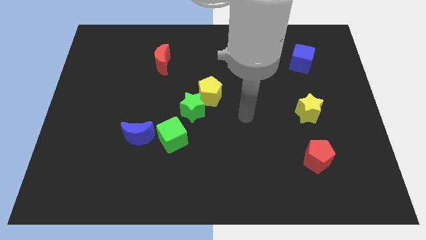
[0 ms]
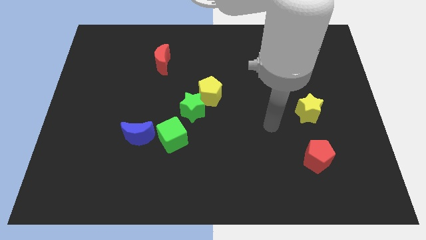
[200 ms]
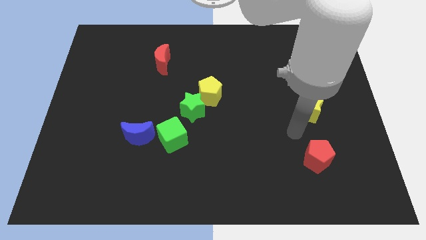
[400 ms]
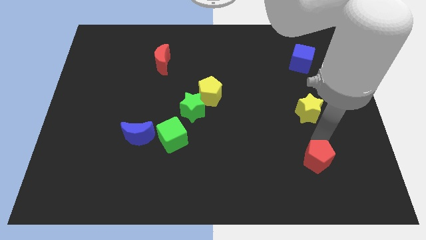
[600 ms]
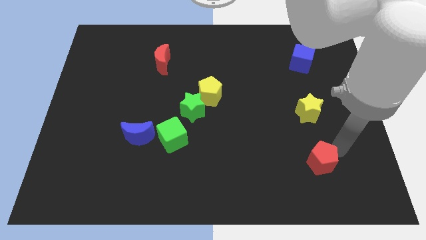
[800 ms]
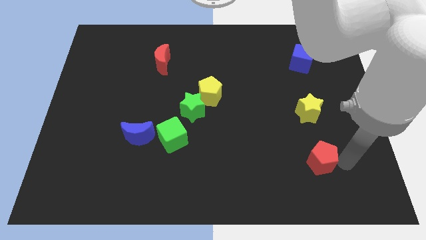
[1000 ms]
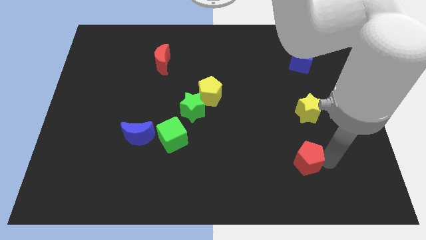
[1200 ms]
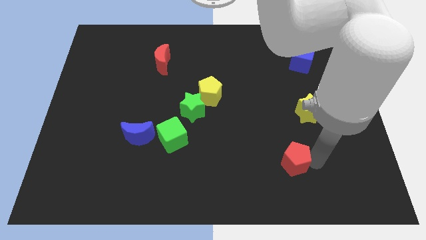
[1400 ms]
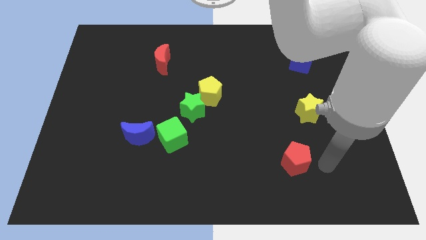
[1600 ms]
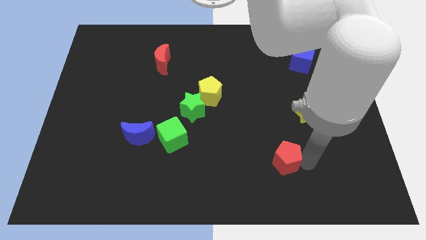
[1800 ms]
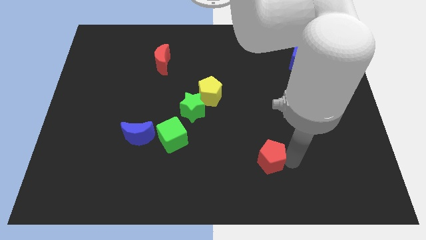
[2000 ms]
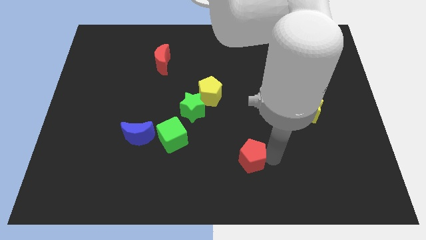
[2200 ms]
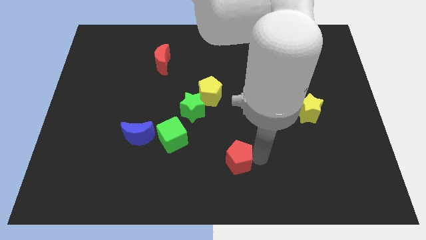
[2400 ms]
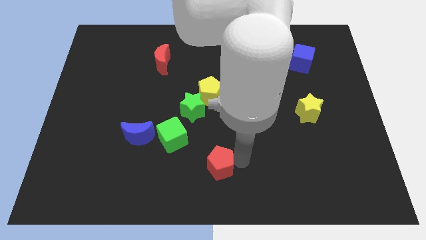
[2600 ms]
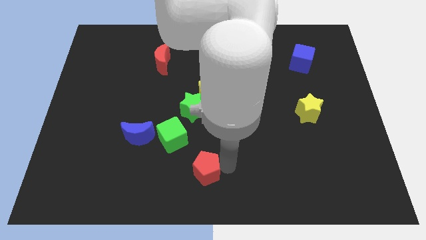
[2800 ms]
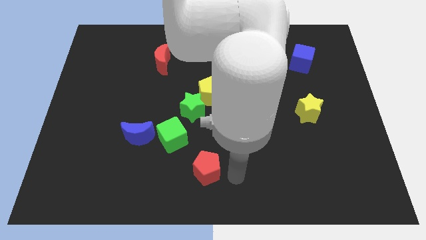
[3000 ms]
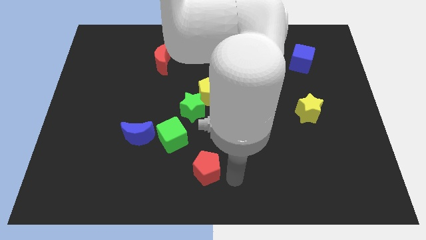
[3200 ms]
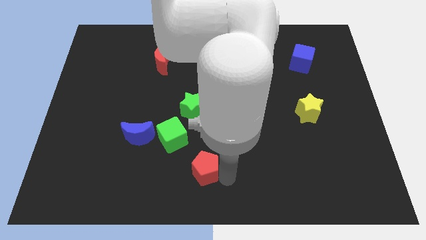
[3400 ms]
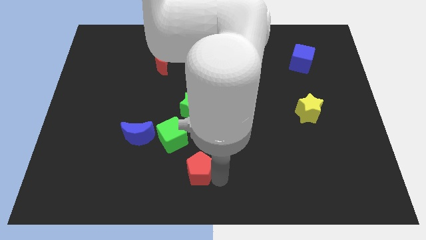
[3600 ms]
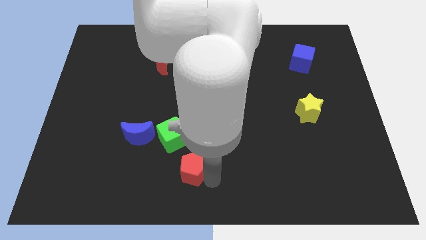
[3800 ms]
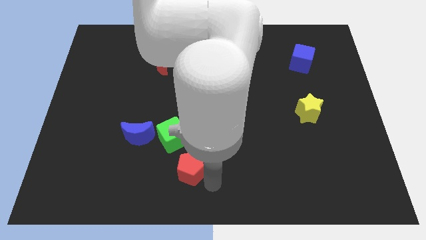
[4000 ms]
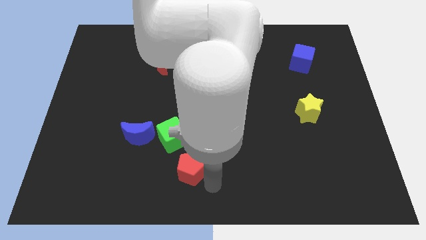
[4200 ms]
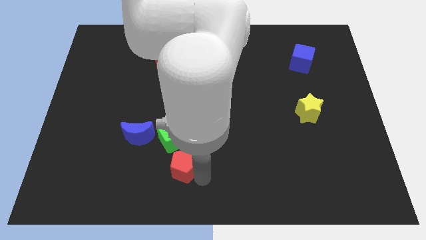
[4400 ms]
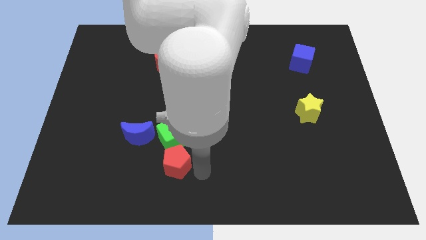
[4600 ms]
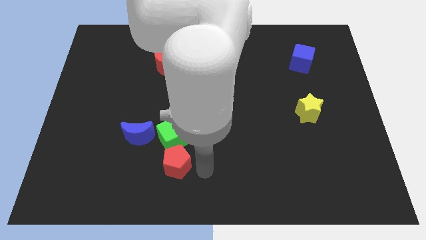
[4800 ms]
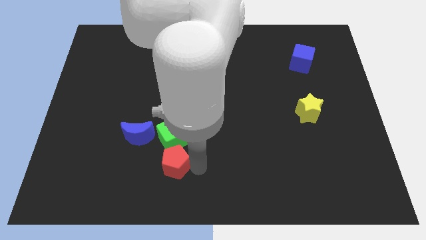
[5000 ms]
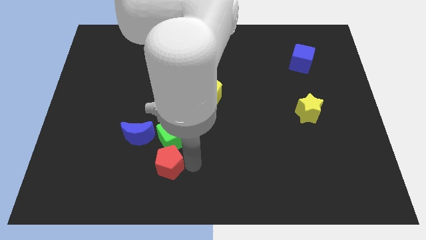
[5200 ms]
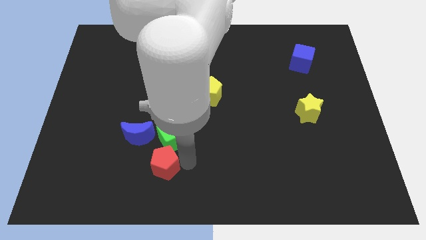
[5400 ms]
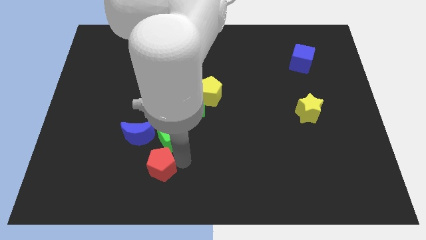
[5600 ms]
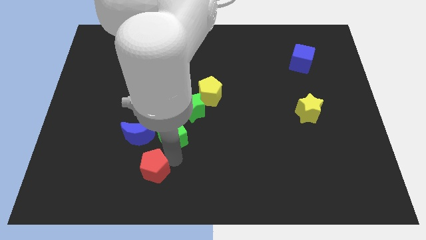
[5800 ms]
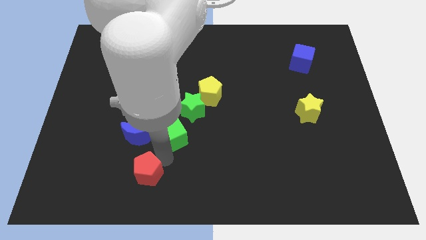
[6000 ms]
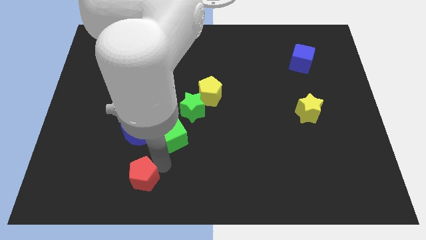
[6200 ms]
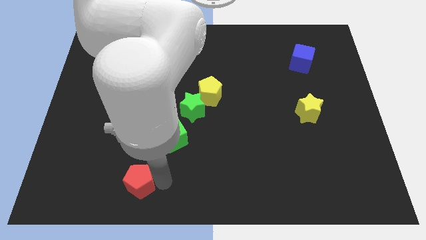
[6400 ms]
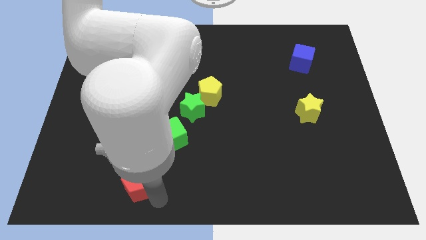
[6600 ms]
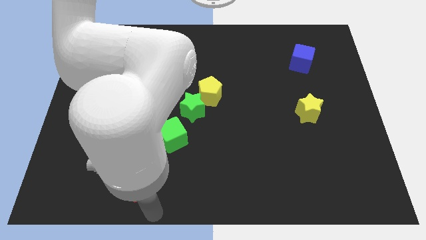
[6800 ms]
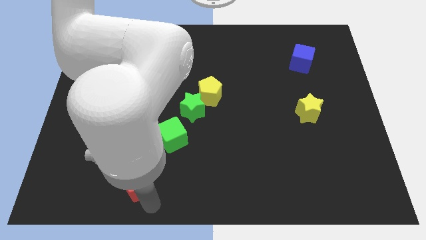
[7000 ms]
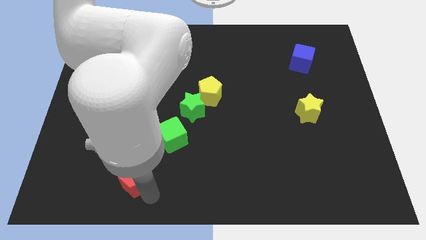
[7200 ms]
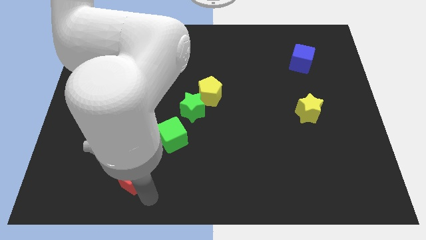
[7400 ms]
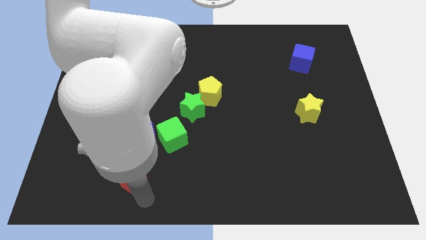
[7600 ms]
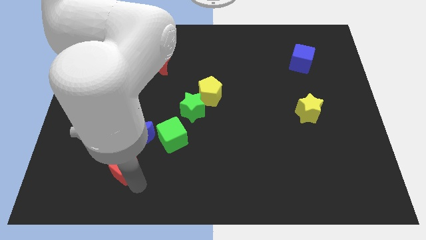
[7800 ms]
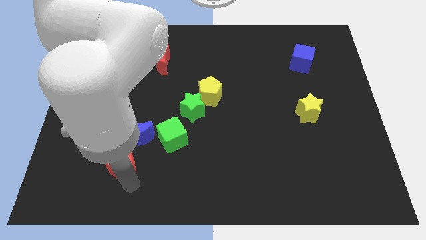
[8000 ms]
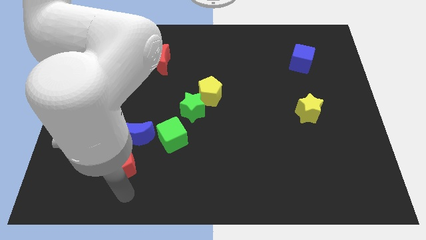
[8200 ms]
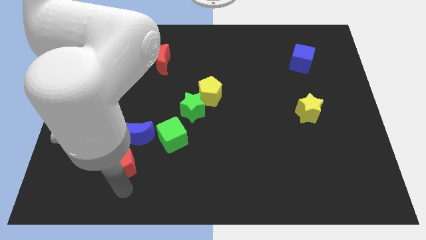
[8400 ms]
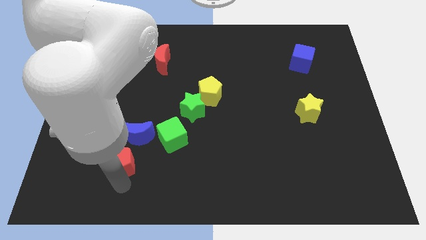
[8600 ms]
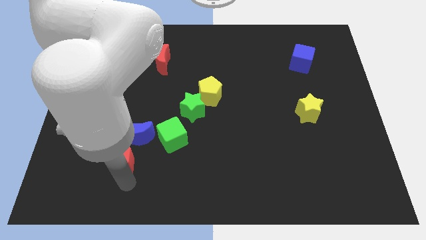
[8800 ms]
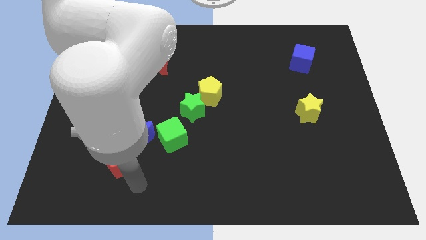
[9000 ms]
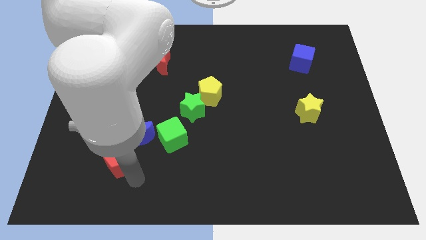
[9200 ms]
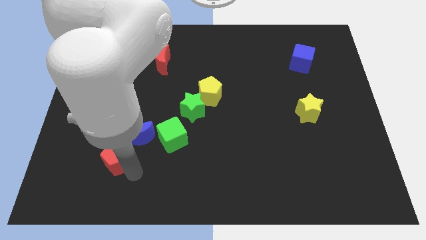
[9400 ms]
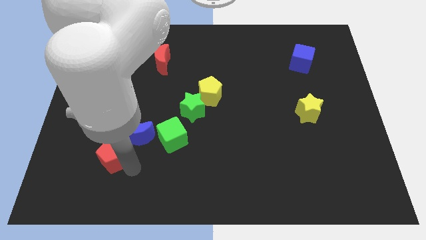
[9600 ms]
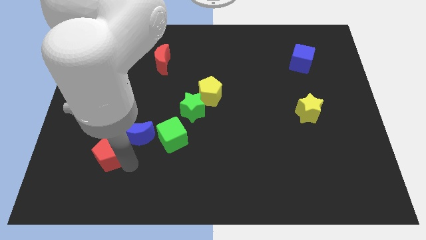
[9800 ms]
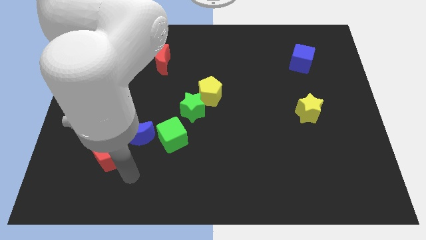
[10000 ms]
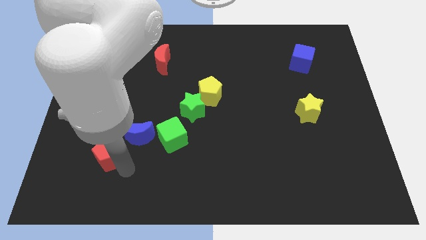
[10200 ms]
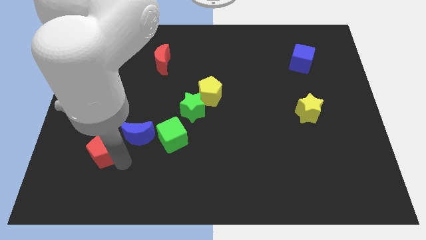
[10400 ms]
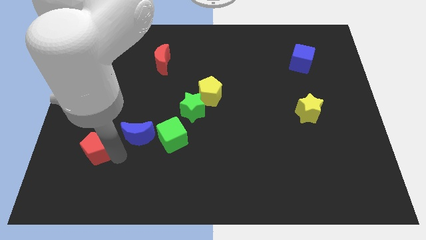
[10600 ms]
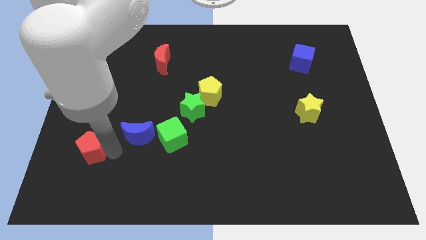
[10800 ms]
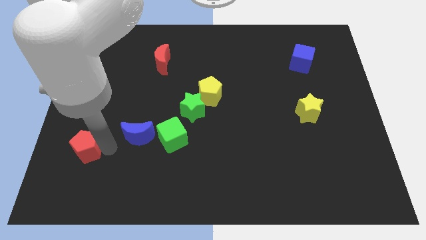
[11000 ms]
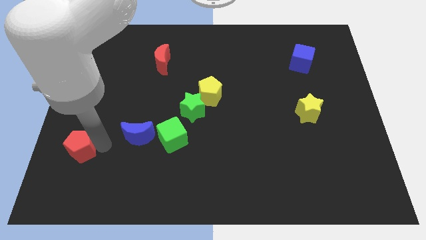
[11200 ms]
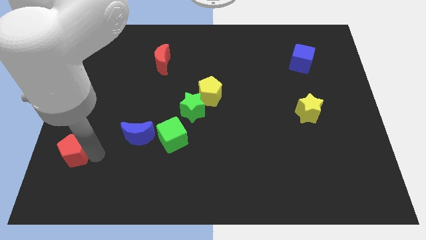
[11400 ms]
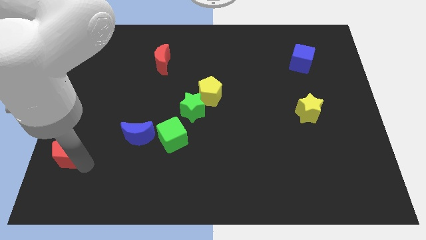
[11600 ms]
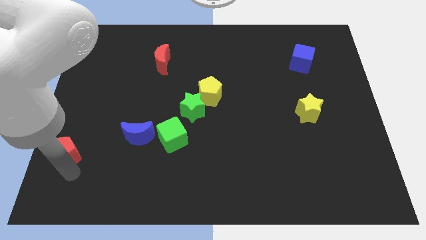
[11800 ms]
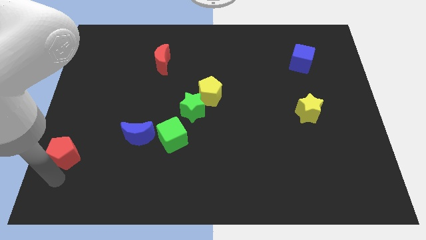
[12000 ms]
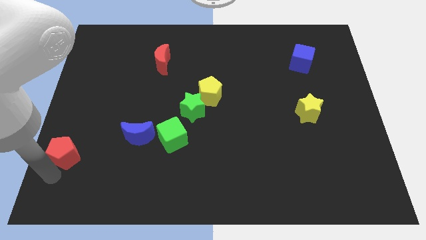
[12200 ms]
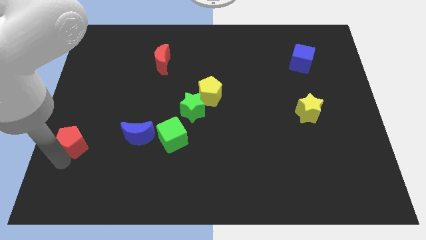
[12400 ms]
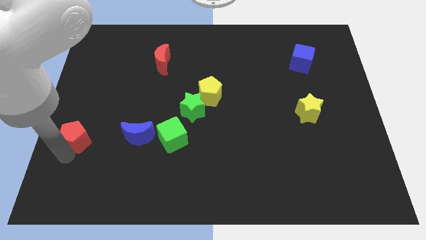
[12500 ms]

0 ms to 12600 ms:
slide the red pentagon to the left side
